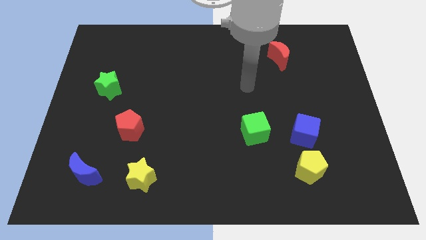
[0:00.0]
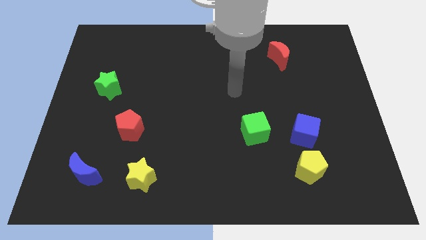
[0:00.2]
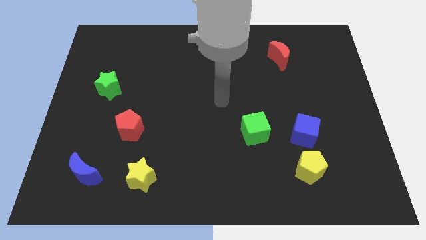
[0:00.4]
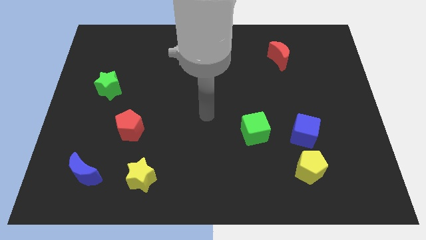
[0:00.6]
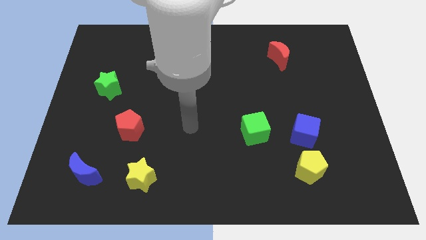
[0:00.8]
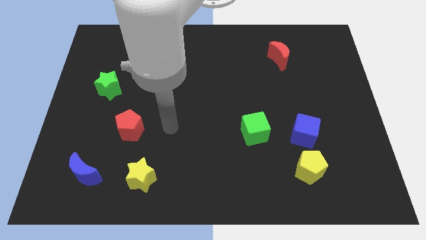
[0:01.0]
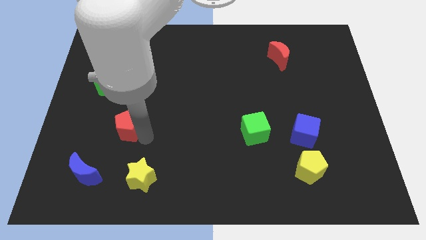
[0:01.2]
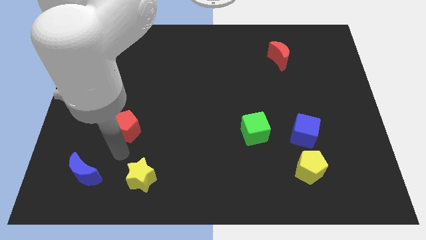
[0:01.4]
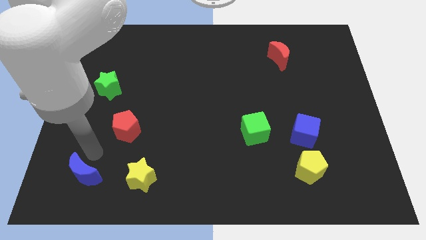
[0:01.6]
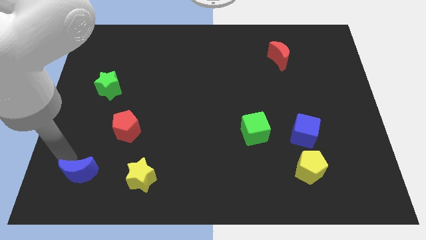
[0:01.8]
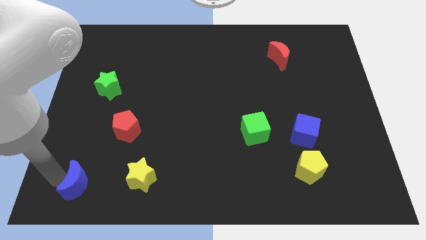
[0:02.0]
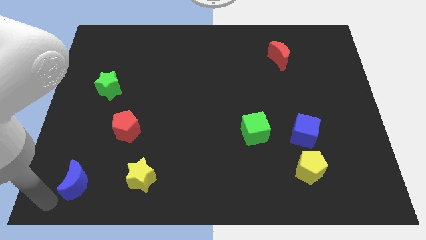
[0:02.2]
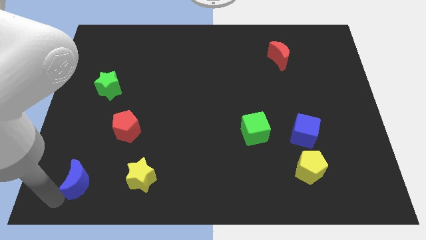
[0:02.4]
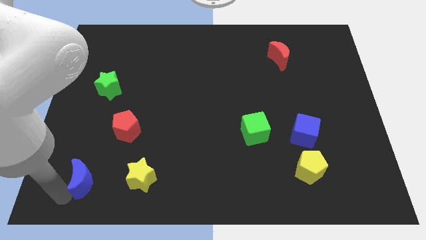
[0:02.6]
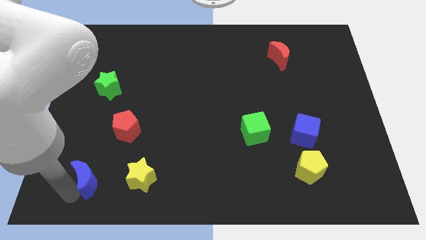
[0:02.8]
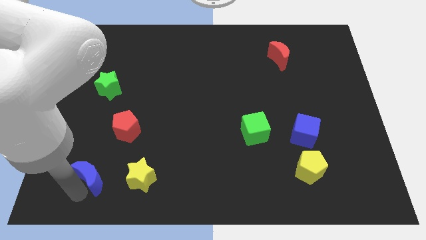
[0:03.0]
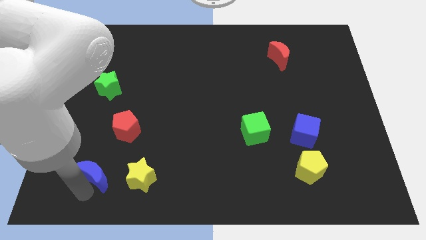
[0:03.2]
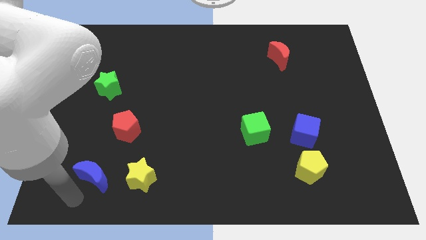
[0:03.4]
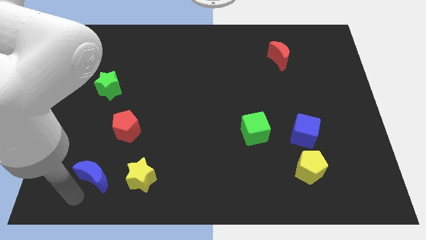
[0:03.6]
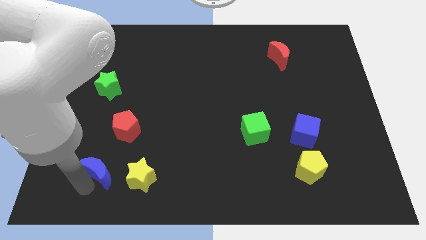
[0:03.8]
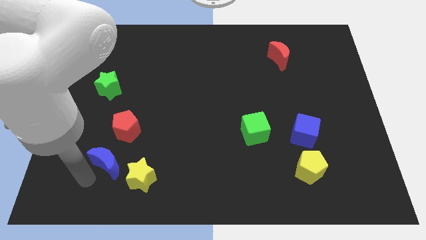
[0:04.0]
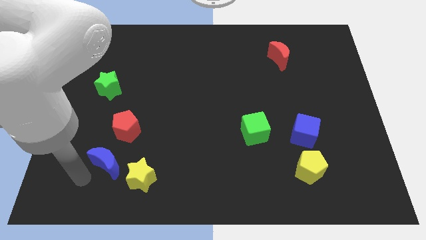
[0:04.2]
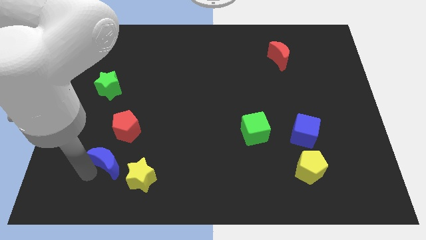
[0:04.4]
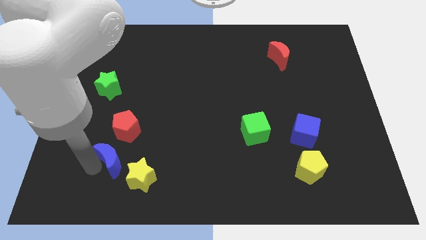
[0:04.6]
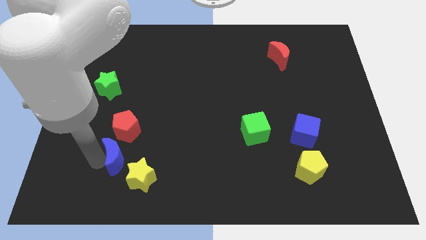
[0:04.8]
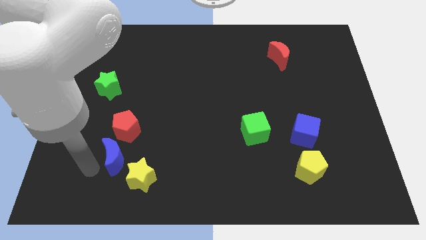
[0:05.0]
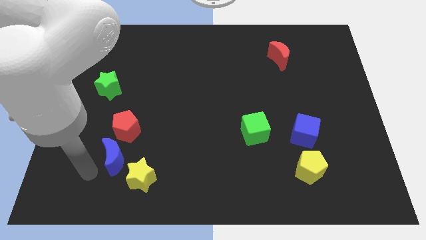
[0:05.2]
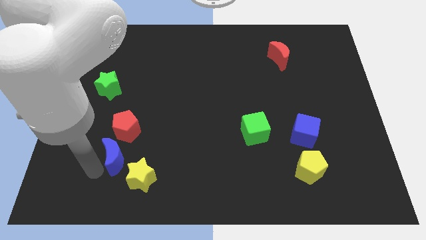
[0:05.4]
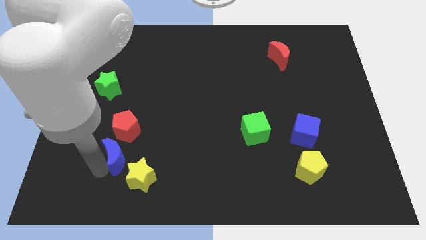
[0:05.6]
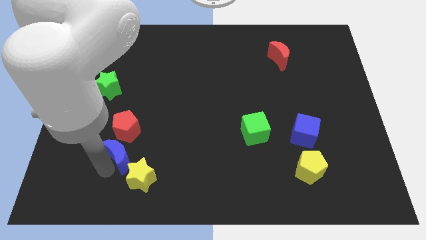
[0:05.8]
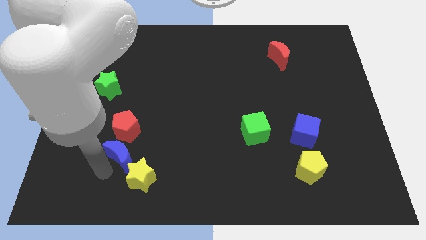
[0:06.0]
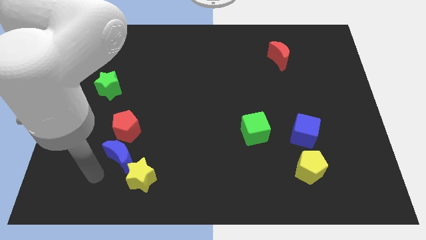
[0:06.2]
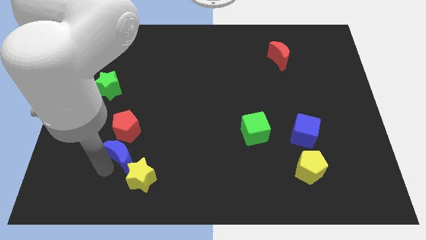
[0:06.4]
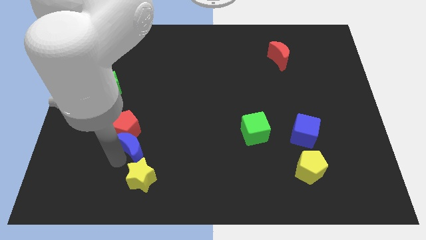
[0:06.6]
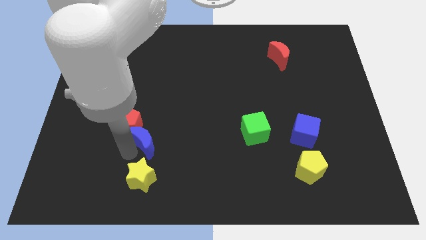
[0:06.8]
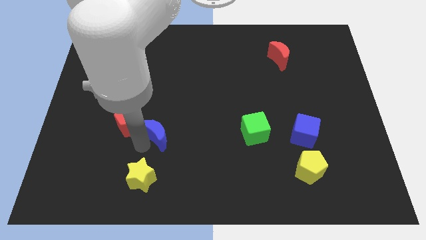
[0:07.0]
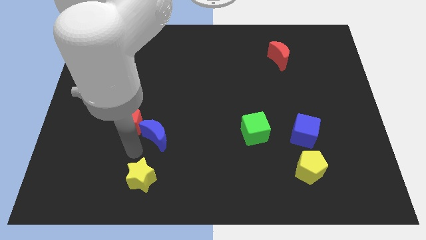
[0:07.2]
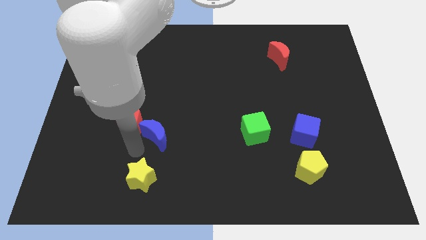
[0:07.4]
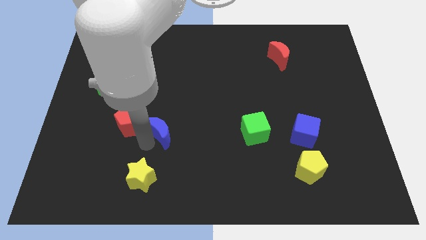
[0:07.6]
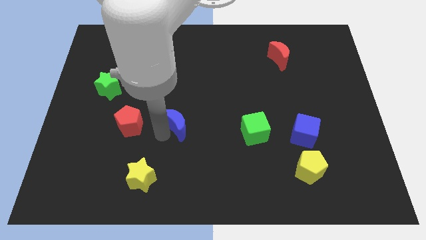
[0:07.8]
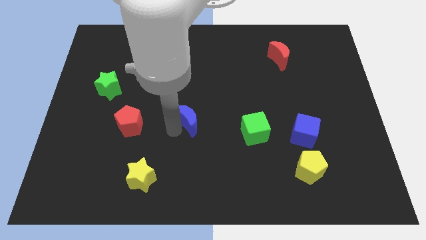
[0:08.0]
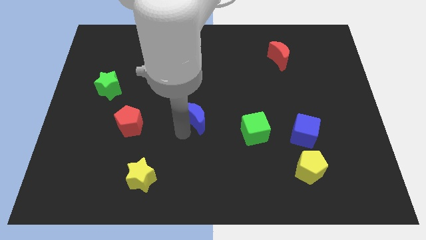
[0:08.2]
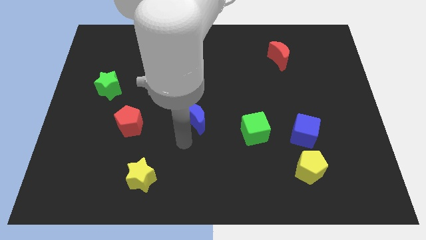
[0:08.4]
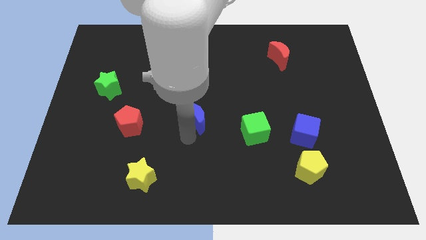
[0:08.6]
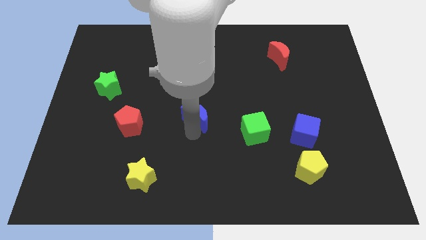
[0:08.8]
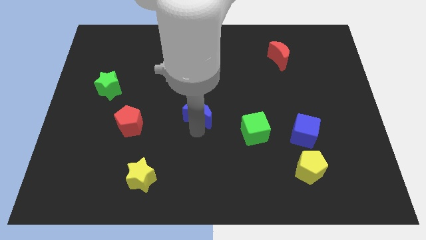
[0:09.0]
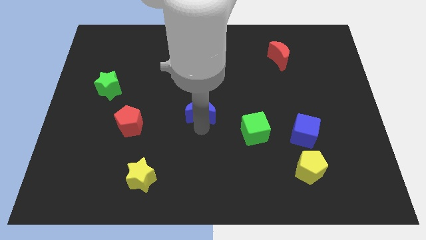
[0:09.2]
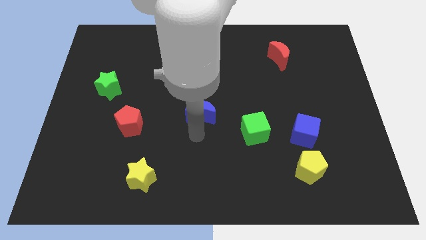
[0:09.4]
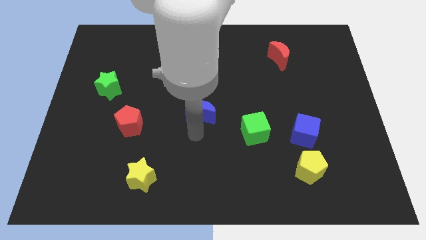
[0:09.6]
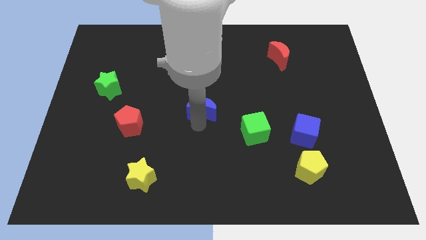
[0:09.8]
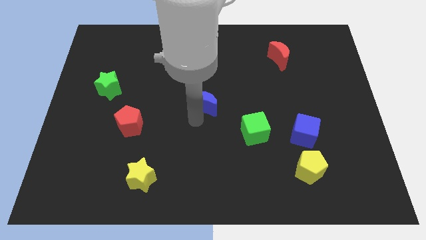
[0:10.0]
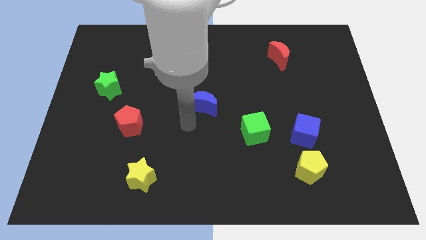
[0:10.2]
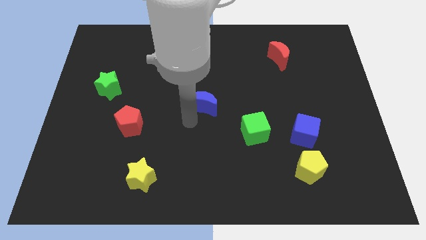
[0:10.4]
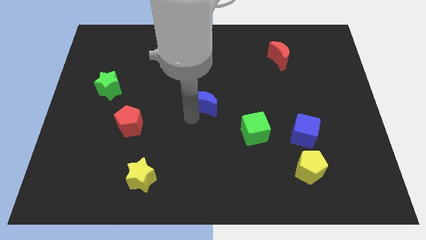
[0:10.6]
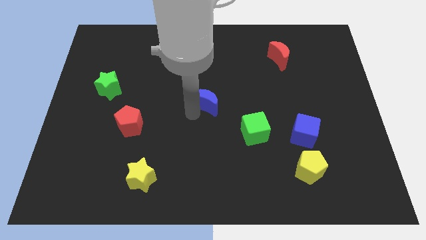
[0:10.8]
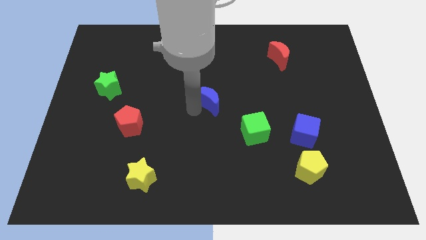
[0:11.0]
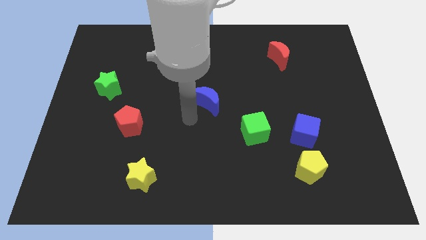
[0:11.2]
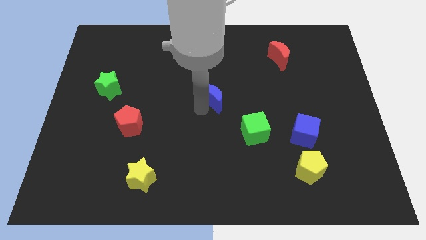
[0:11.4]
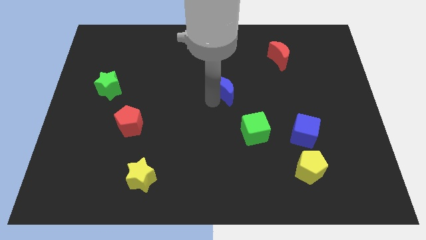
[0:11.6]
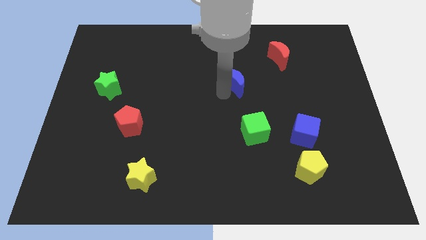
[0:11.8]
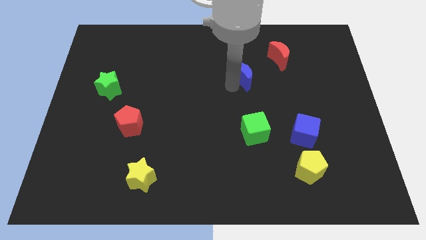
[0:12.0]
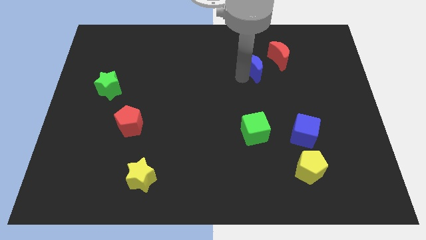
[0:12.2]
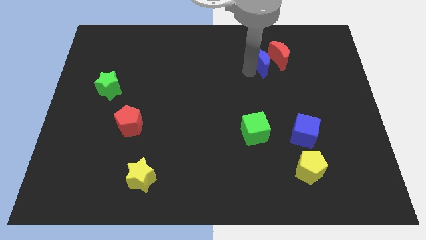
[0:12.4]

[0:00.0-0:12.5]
slide the blue moon to the red moon

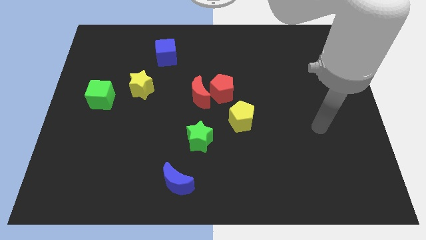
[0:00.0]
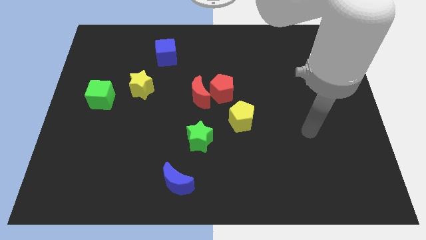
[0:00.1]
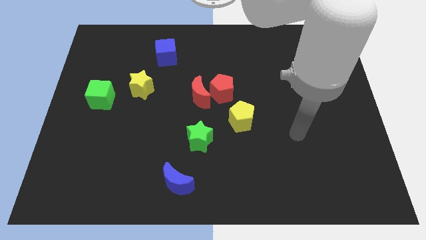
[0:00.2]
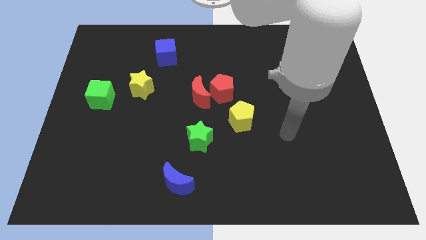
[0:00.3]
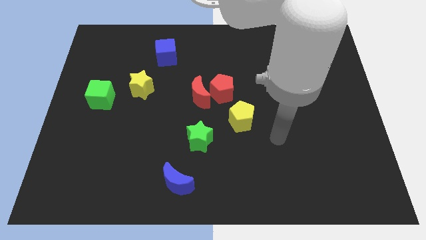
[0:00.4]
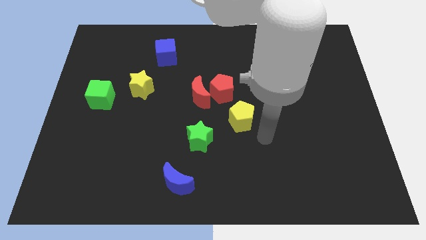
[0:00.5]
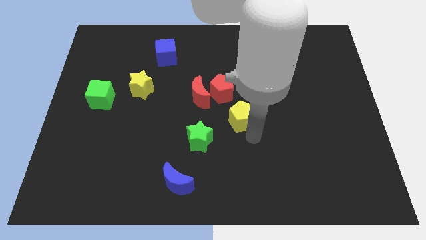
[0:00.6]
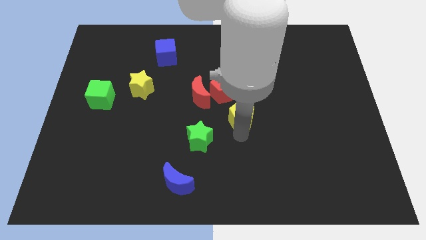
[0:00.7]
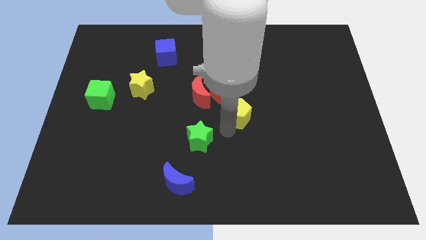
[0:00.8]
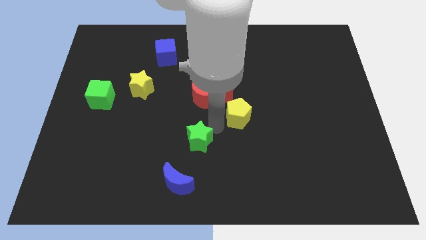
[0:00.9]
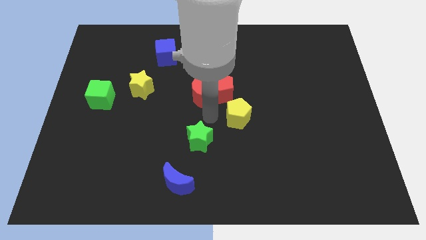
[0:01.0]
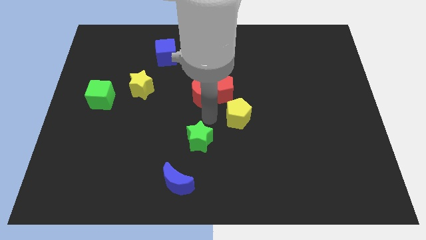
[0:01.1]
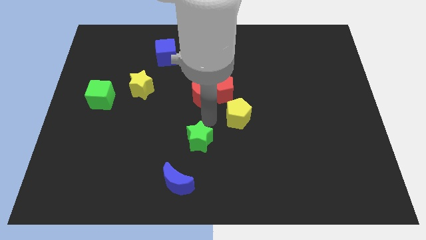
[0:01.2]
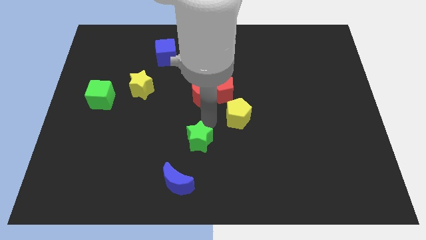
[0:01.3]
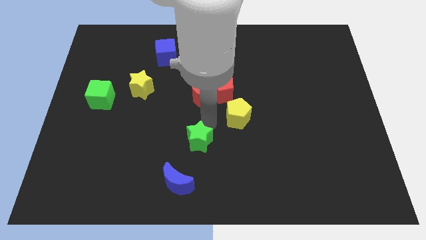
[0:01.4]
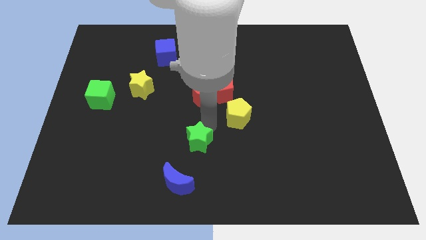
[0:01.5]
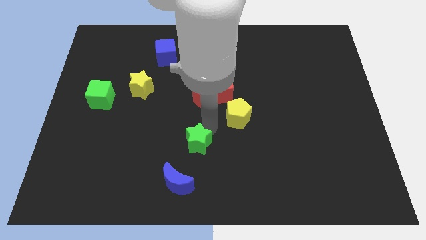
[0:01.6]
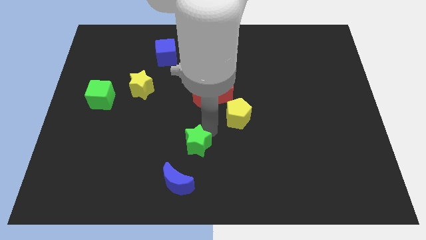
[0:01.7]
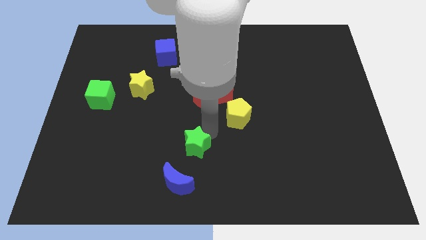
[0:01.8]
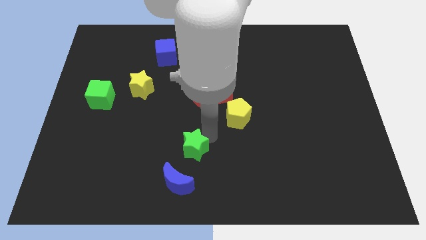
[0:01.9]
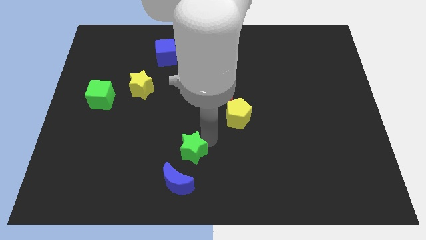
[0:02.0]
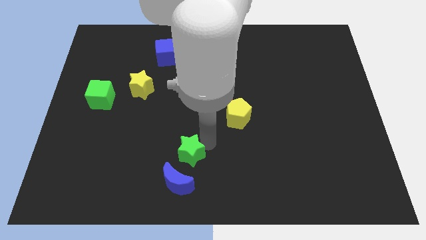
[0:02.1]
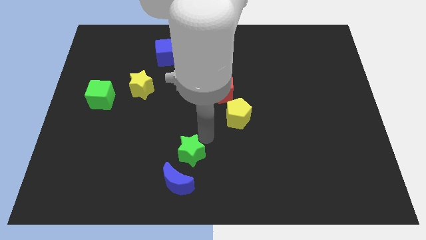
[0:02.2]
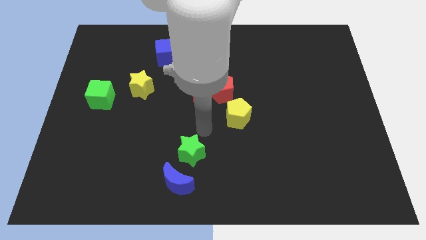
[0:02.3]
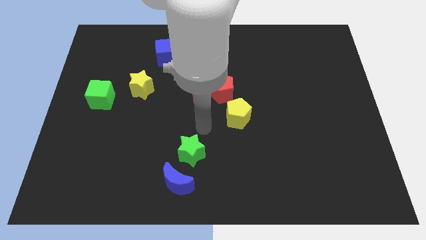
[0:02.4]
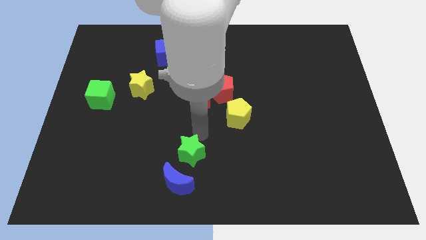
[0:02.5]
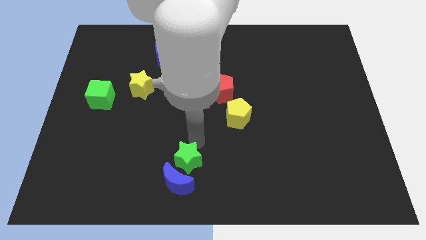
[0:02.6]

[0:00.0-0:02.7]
push the green star next to the blue moon
